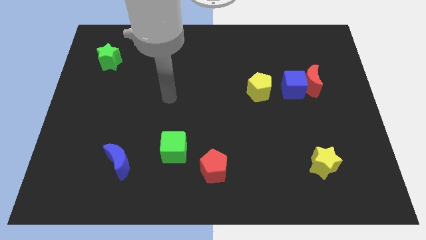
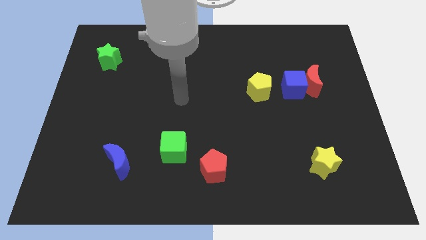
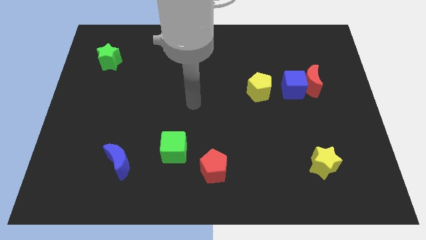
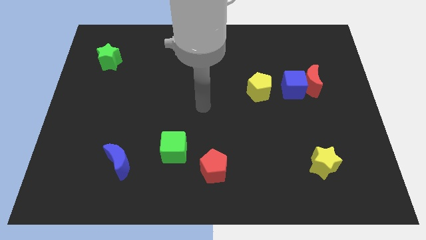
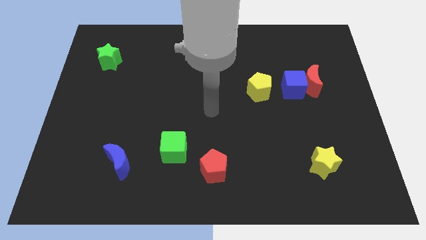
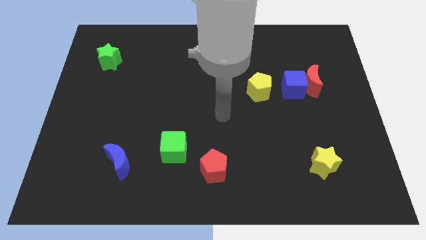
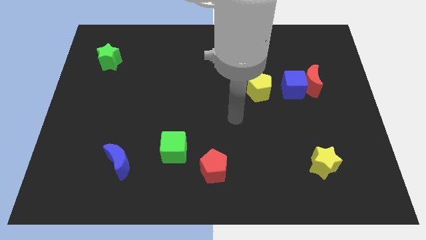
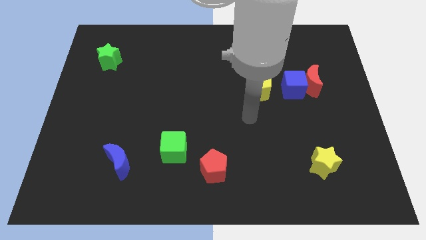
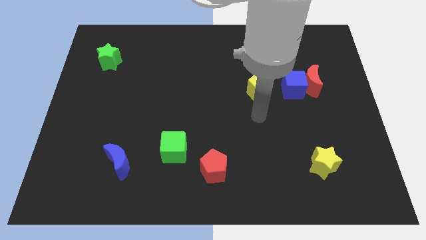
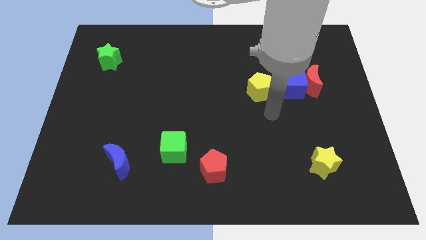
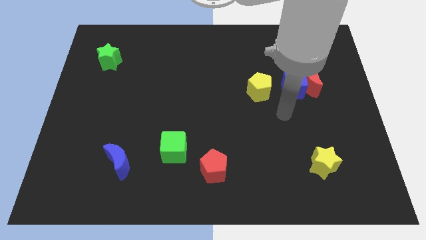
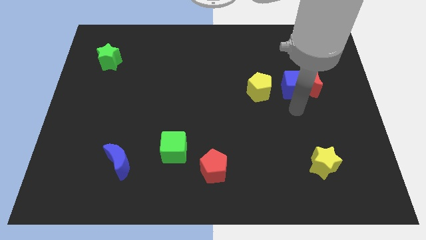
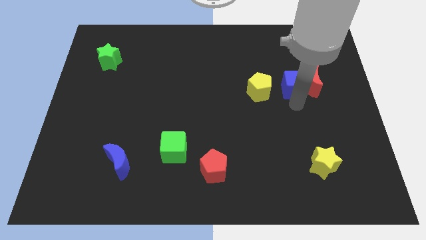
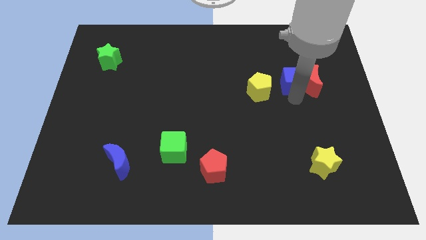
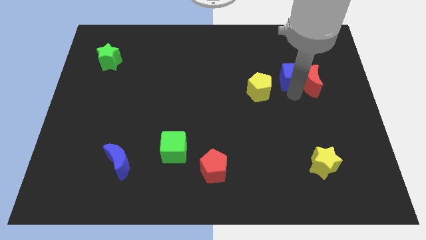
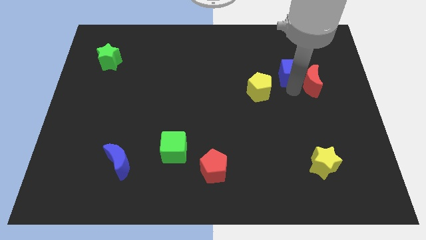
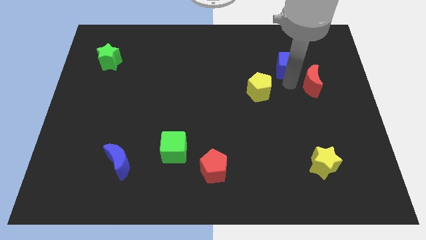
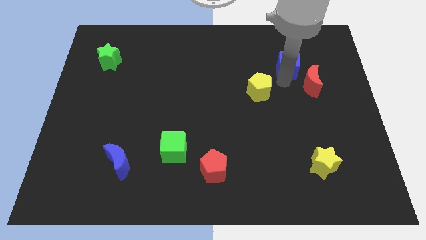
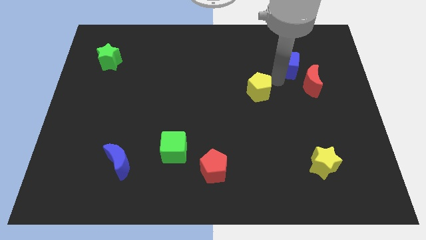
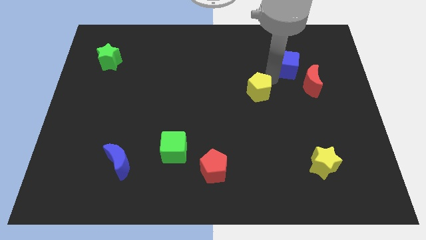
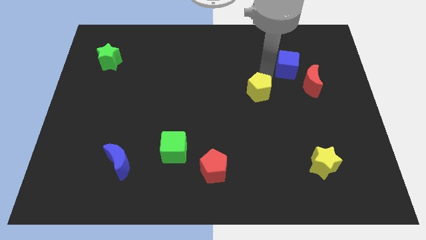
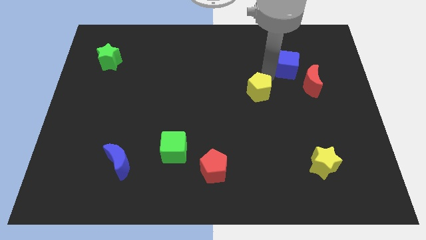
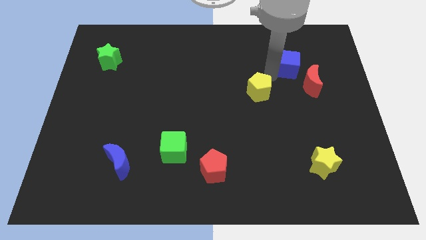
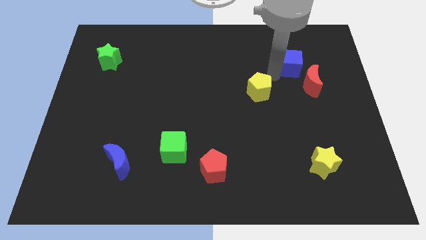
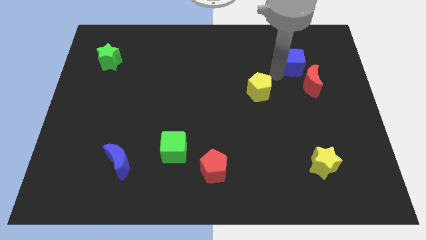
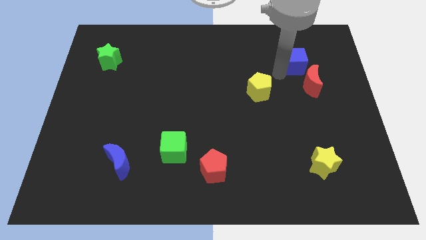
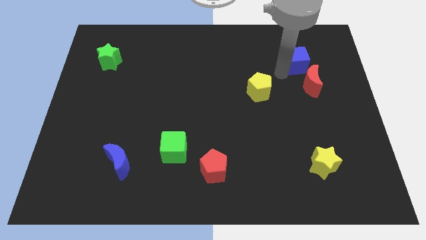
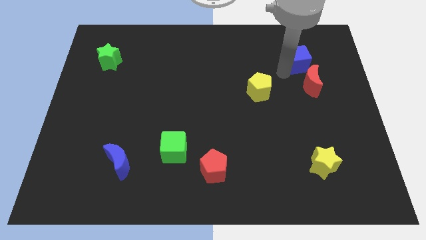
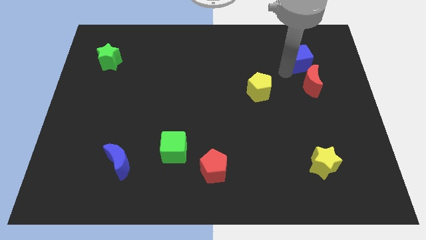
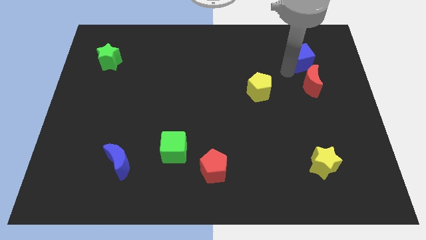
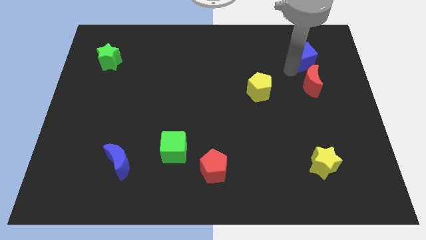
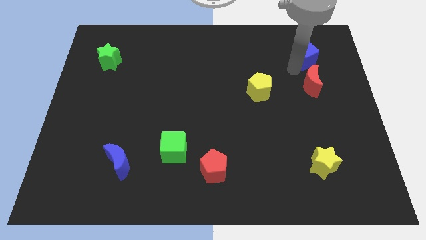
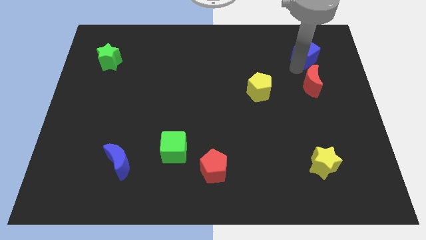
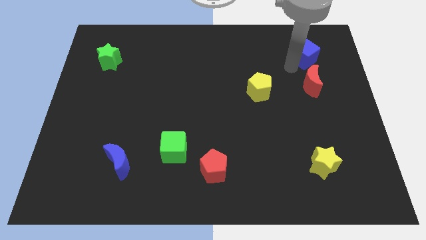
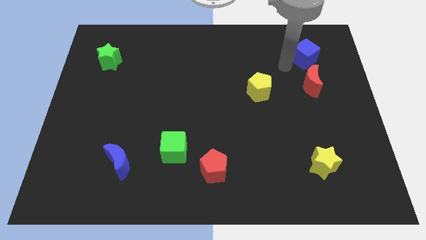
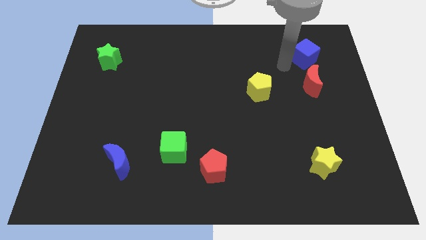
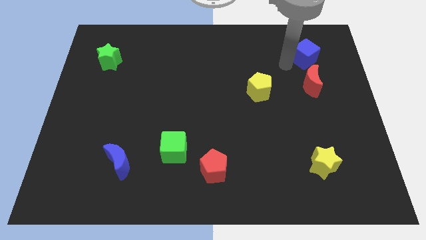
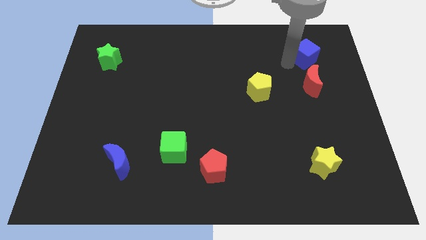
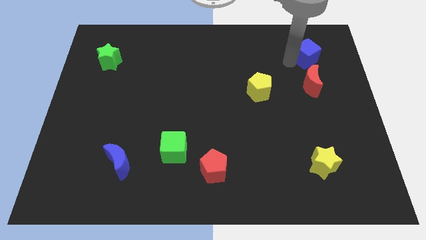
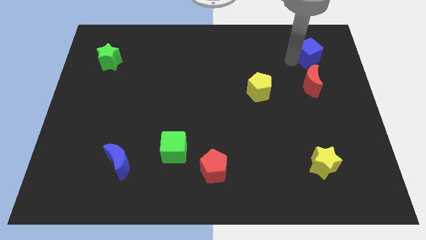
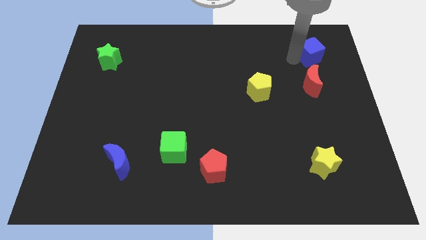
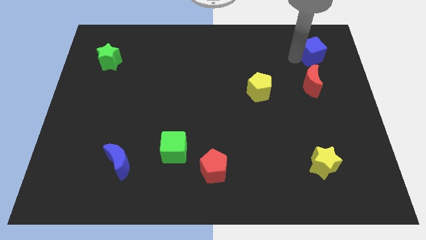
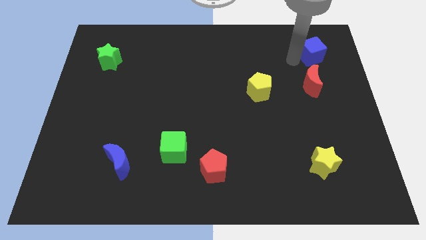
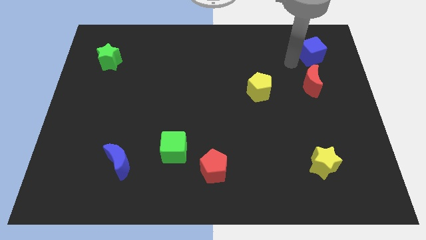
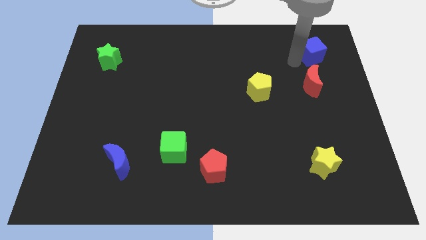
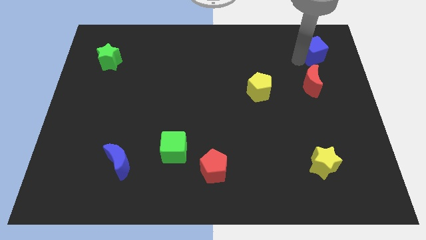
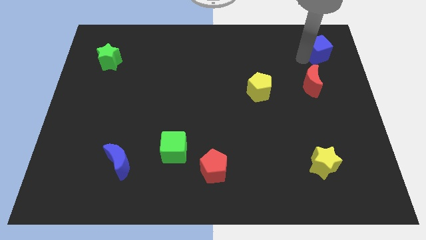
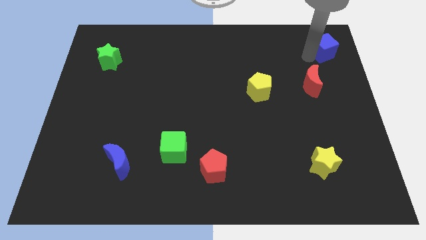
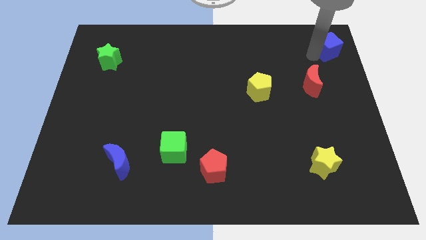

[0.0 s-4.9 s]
move the blue cube to the top right

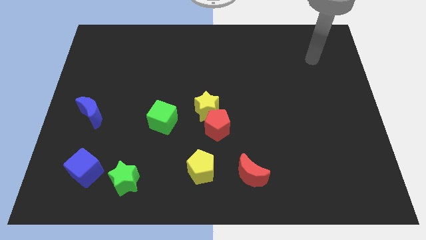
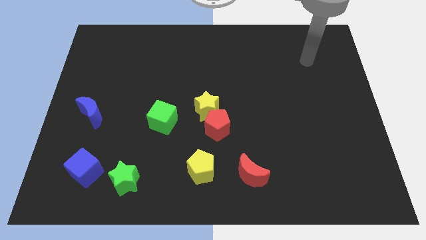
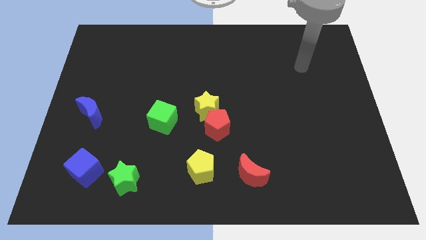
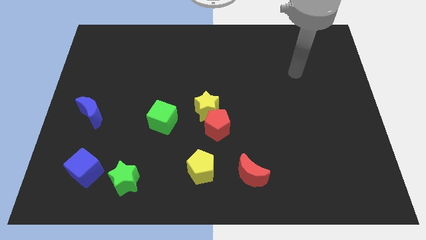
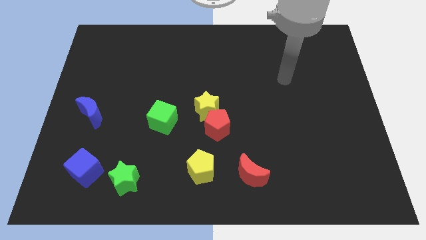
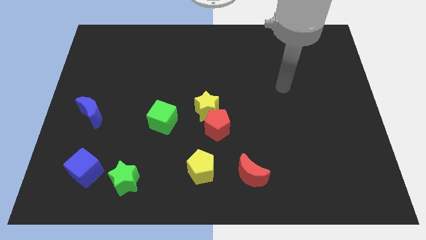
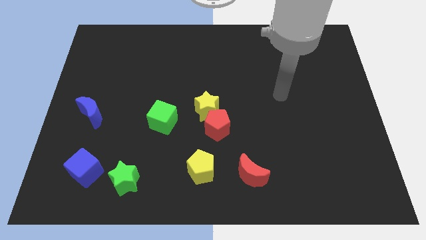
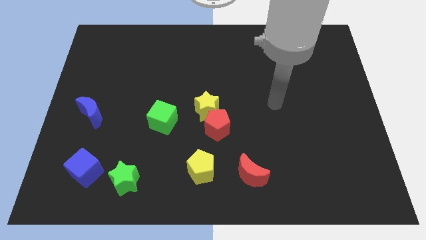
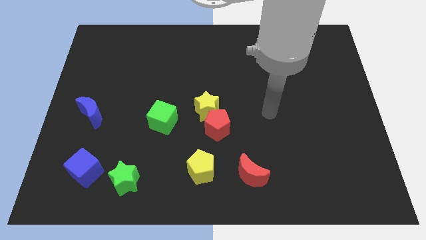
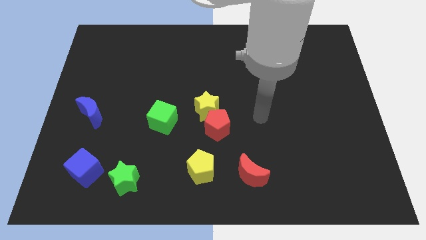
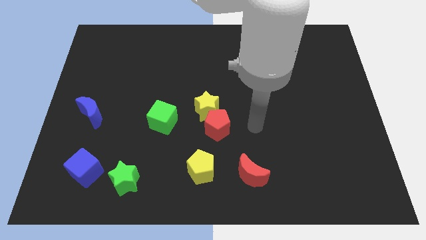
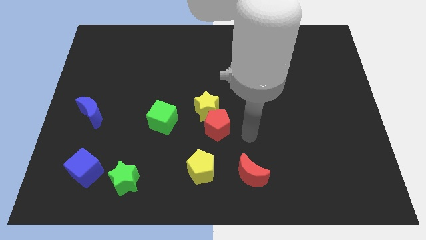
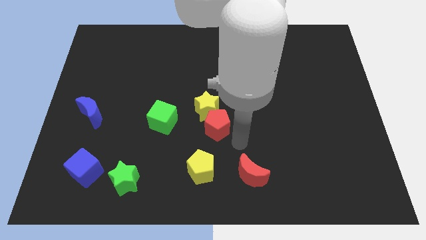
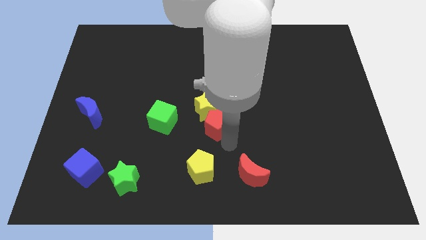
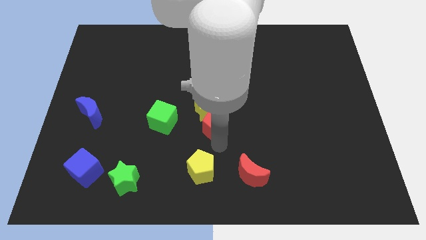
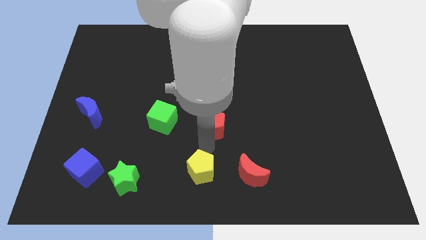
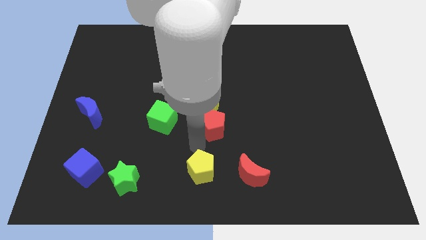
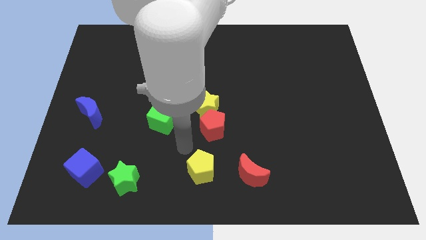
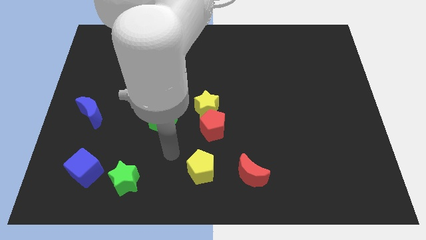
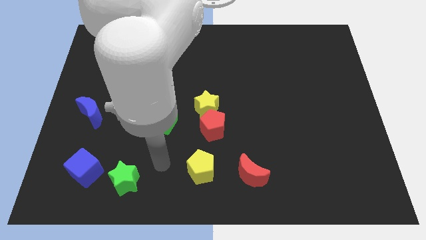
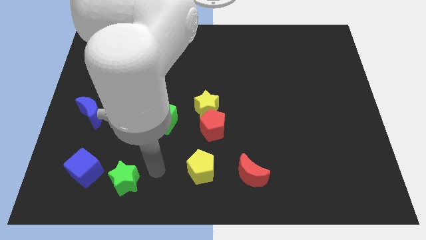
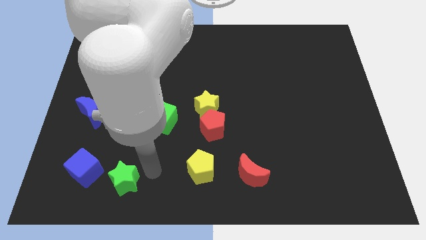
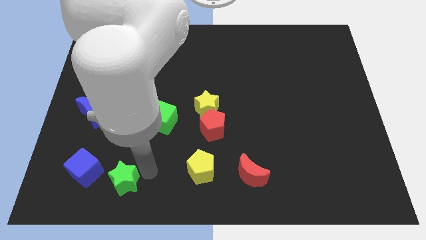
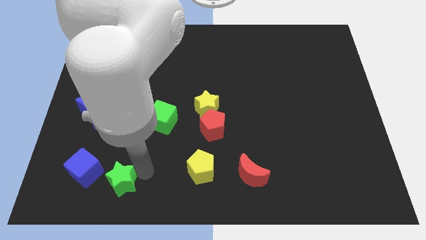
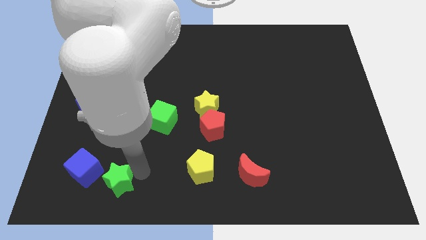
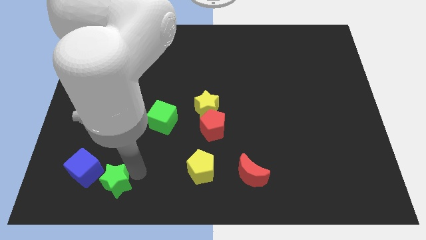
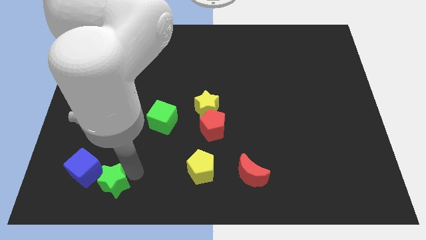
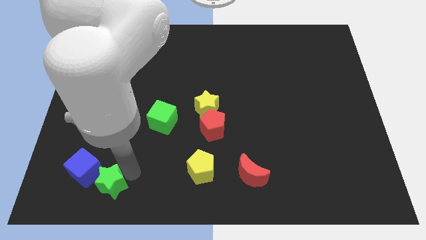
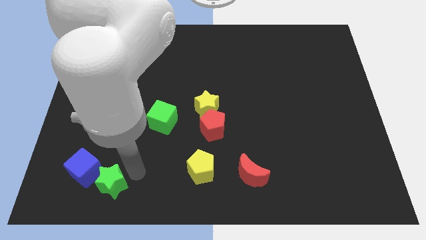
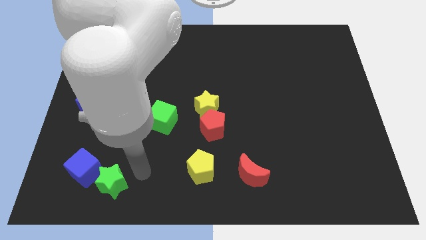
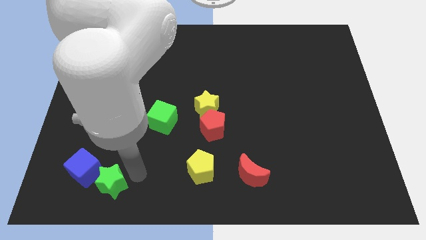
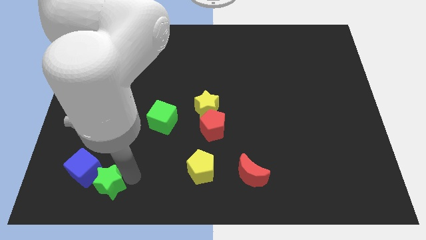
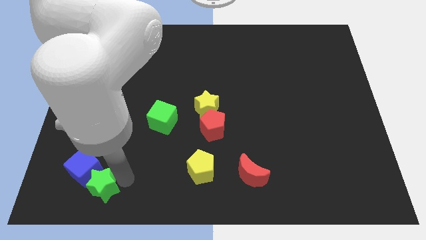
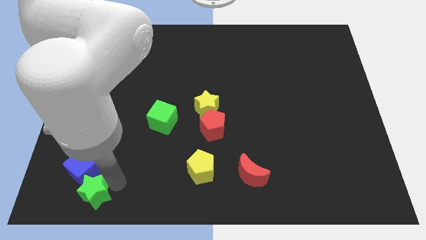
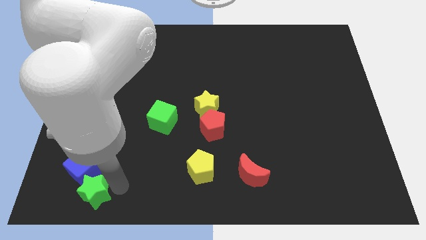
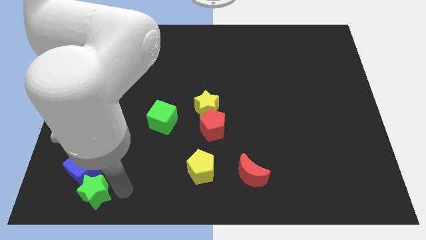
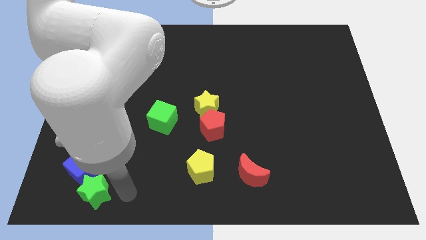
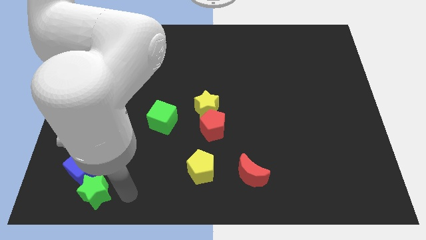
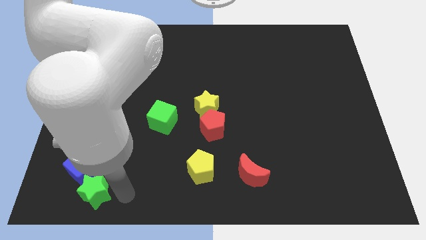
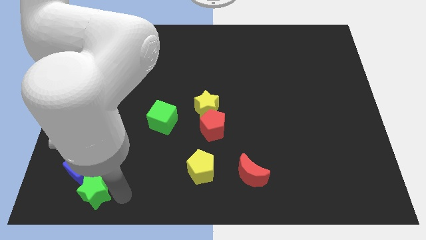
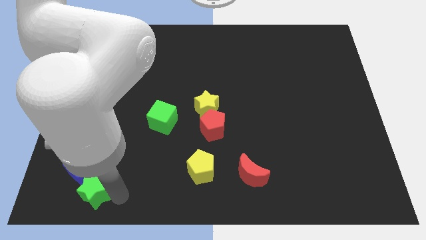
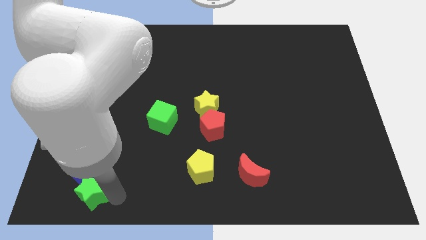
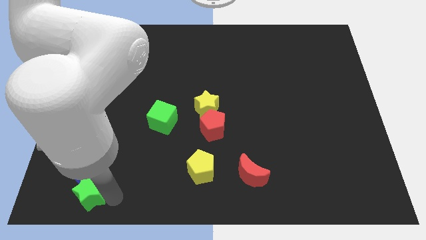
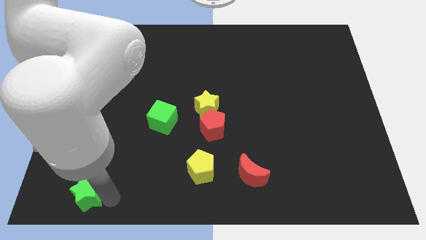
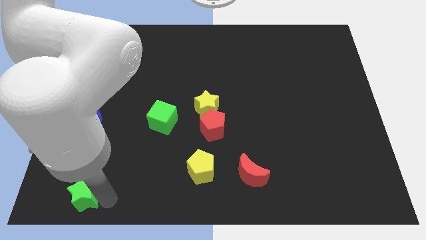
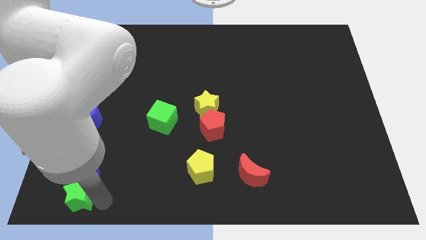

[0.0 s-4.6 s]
move the green star to the bottom left
